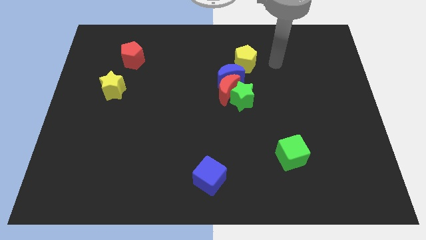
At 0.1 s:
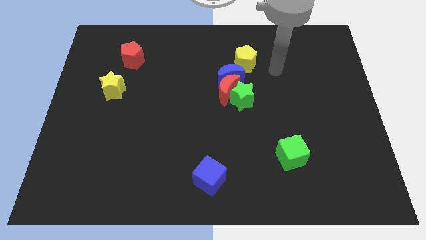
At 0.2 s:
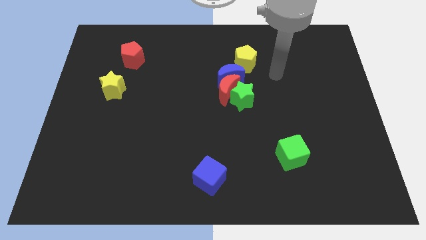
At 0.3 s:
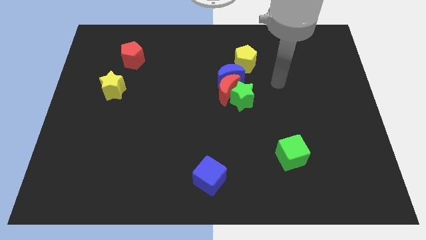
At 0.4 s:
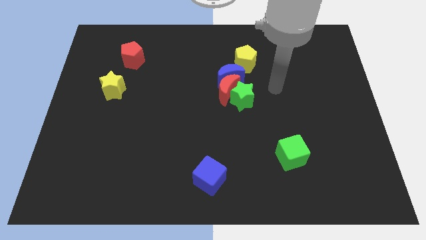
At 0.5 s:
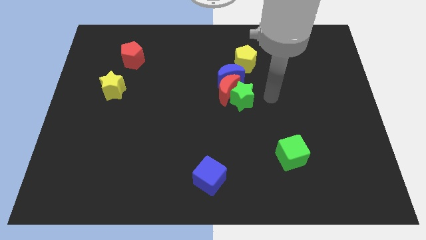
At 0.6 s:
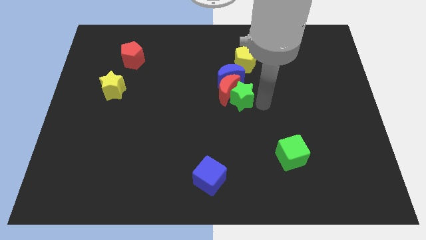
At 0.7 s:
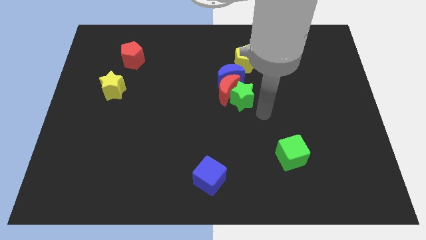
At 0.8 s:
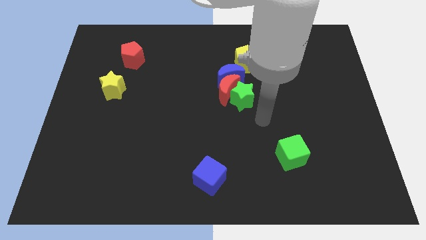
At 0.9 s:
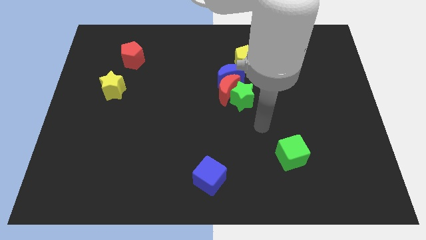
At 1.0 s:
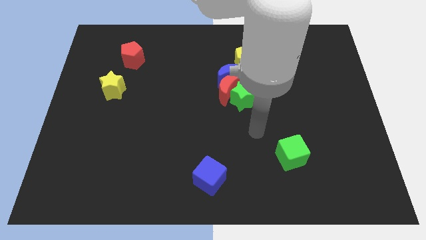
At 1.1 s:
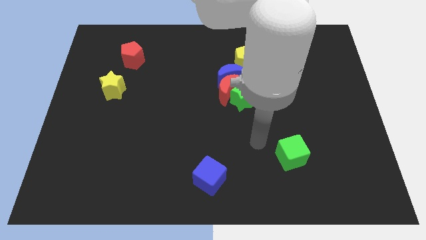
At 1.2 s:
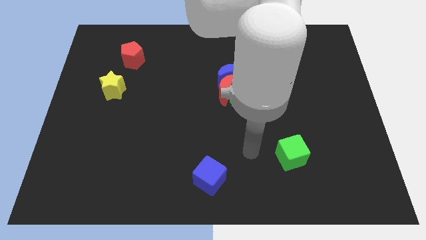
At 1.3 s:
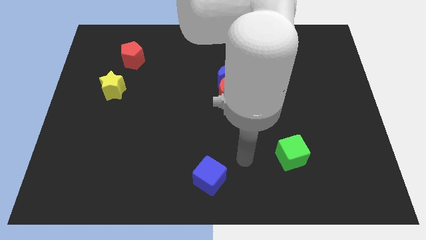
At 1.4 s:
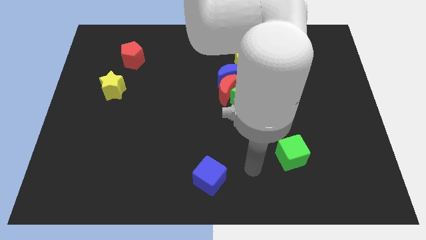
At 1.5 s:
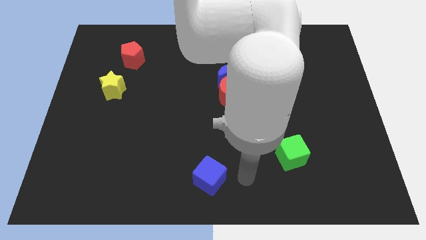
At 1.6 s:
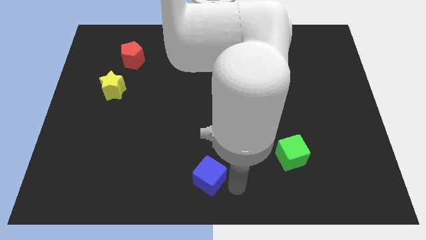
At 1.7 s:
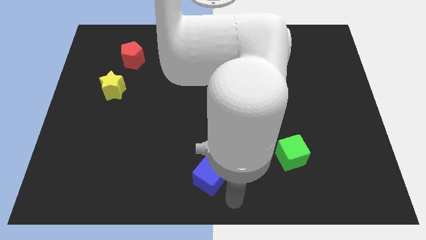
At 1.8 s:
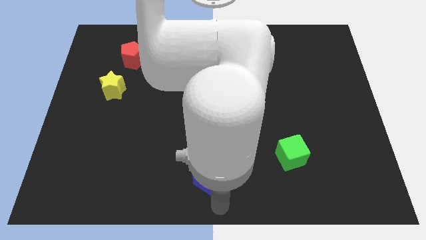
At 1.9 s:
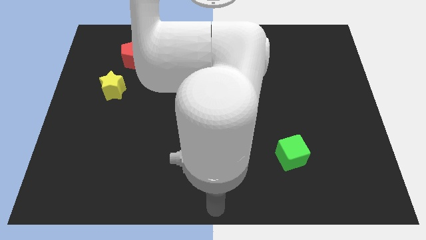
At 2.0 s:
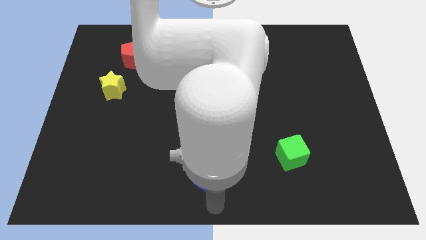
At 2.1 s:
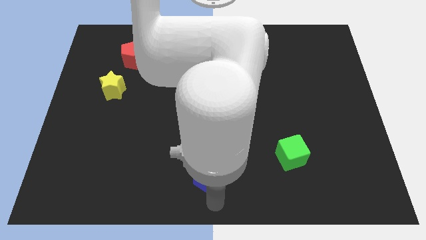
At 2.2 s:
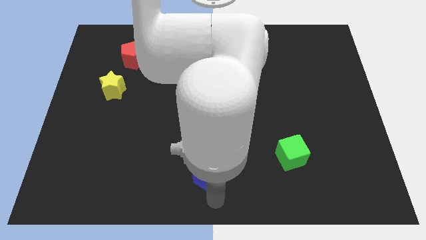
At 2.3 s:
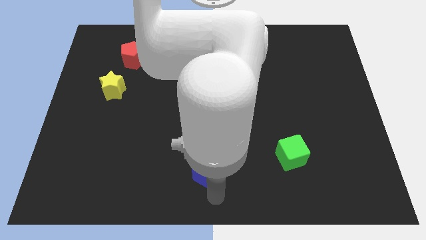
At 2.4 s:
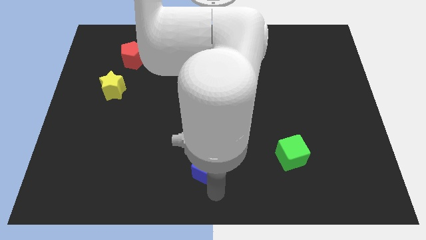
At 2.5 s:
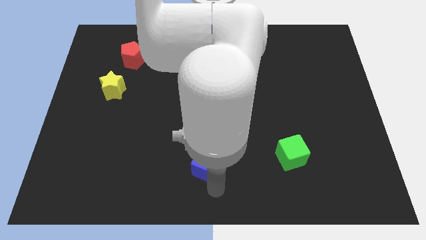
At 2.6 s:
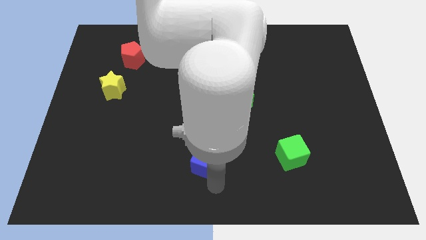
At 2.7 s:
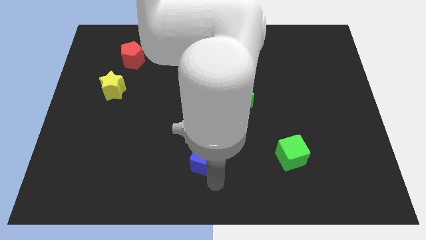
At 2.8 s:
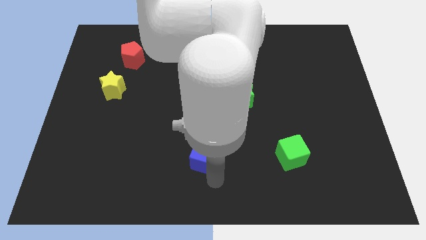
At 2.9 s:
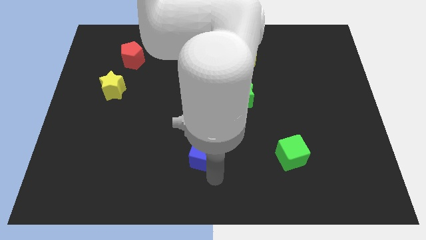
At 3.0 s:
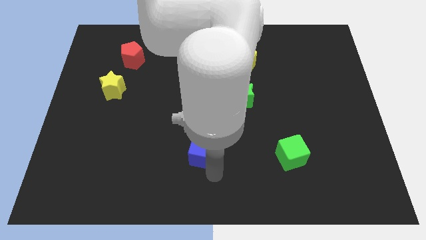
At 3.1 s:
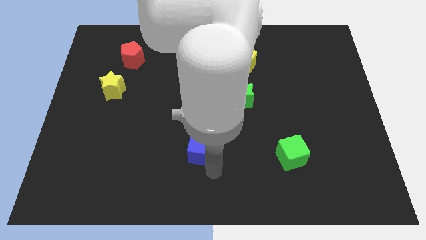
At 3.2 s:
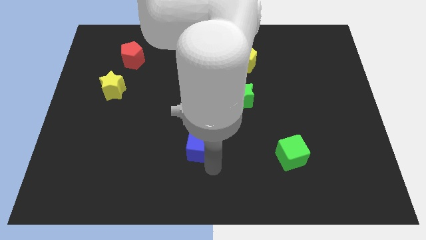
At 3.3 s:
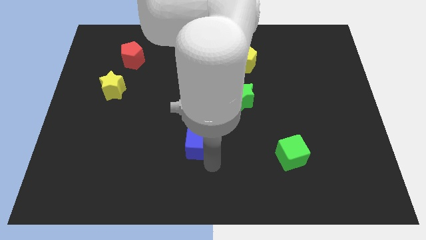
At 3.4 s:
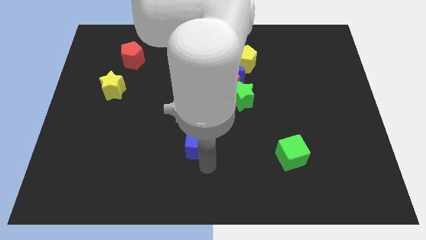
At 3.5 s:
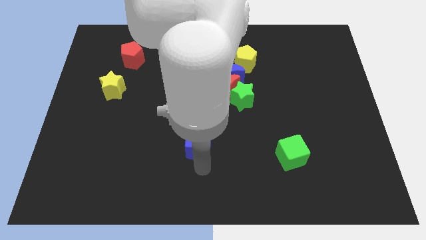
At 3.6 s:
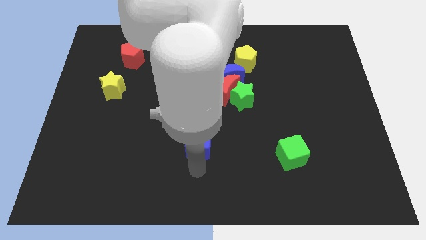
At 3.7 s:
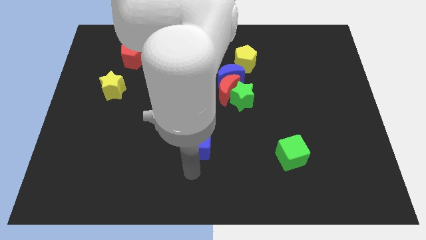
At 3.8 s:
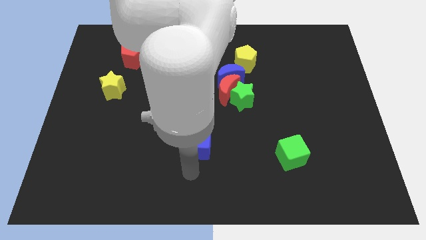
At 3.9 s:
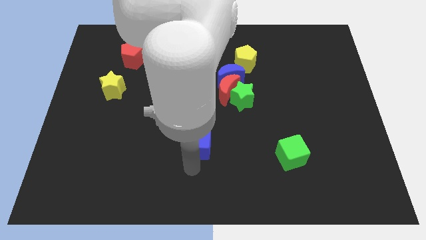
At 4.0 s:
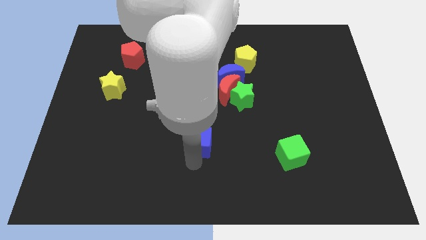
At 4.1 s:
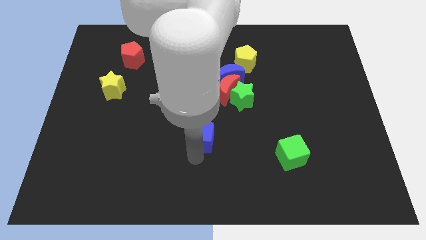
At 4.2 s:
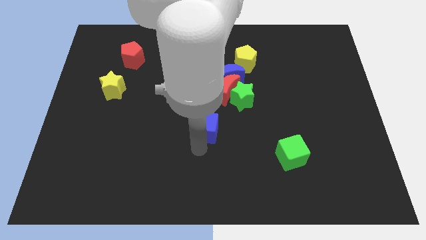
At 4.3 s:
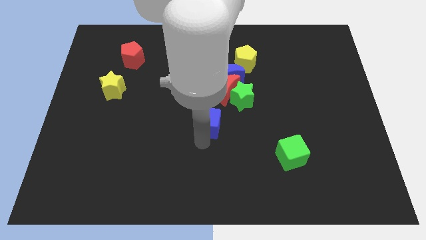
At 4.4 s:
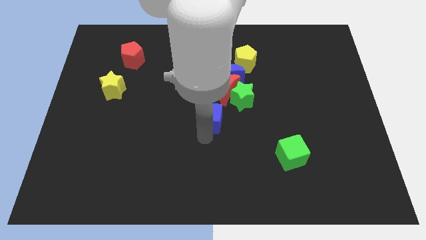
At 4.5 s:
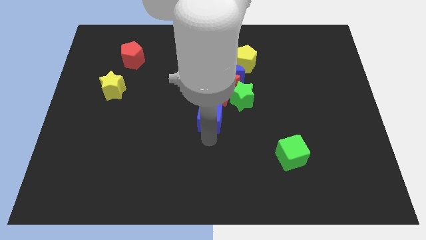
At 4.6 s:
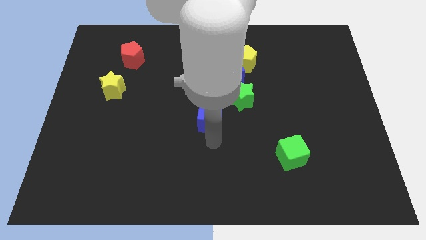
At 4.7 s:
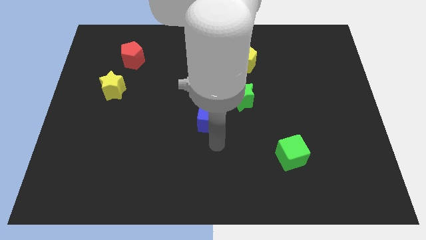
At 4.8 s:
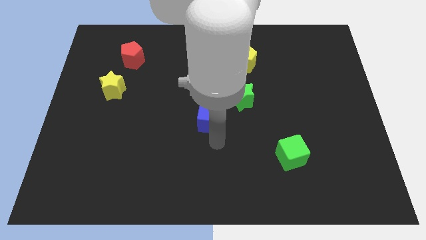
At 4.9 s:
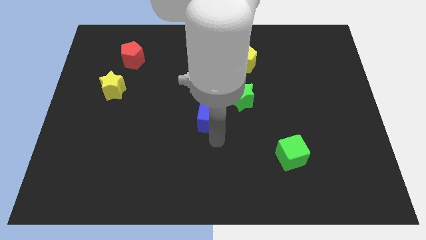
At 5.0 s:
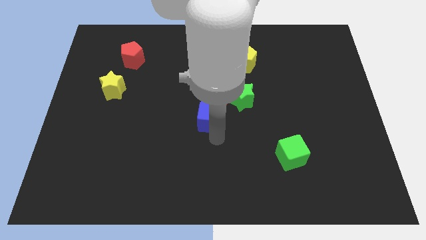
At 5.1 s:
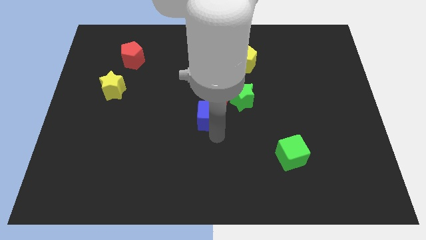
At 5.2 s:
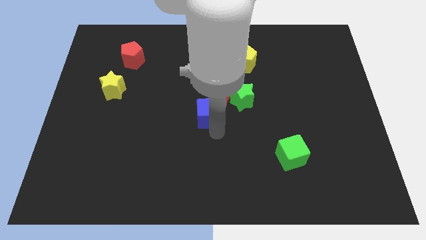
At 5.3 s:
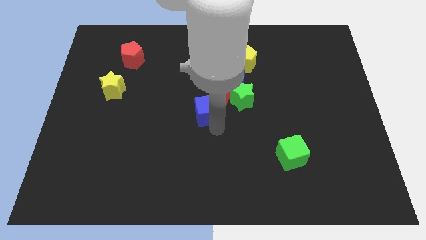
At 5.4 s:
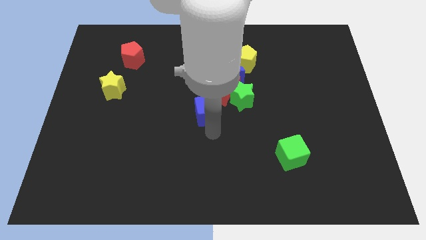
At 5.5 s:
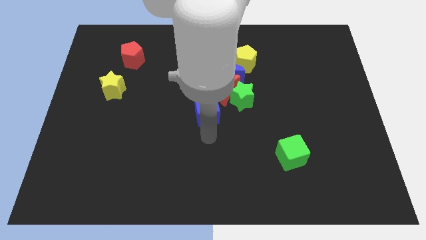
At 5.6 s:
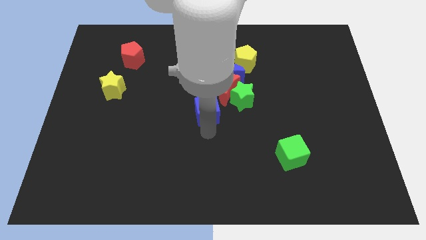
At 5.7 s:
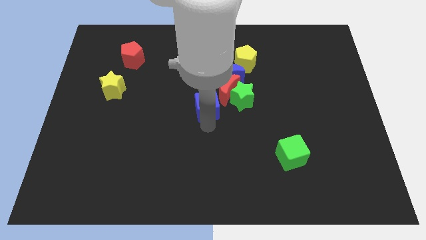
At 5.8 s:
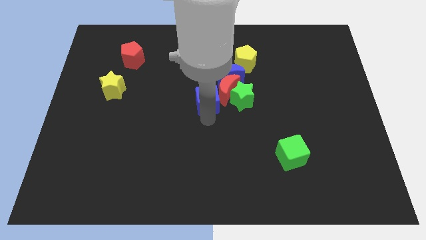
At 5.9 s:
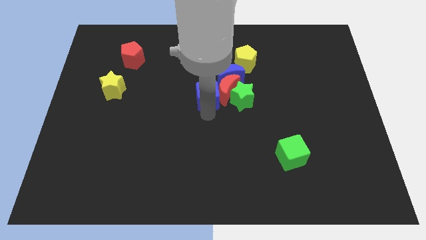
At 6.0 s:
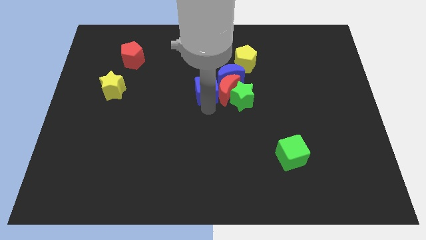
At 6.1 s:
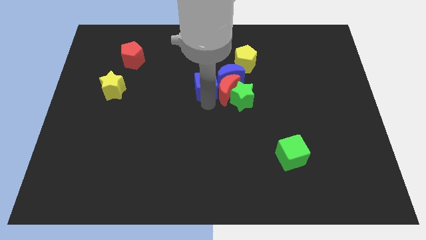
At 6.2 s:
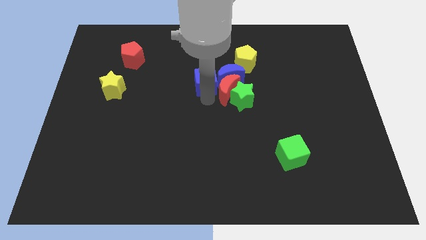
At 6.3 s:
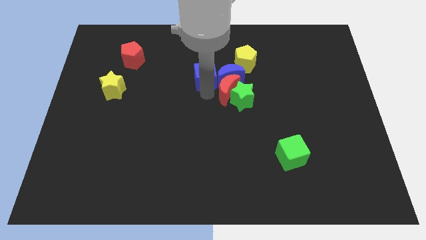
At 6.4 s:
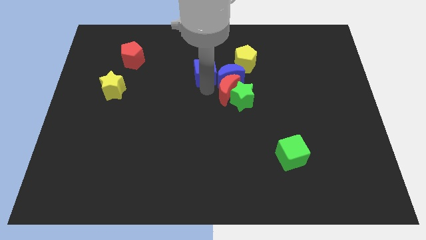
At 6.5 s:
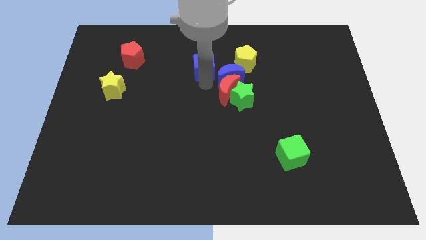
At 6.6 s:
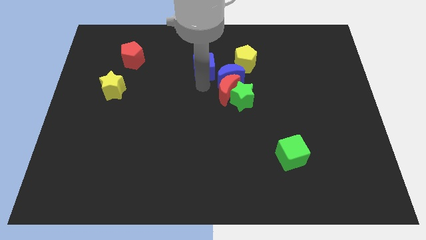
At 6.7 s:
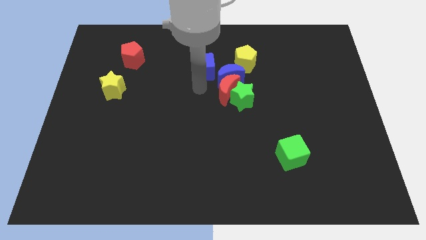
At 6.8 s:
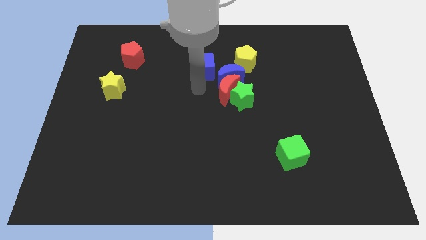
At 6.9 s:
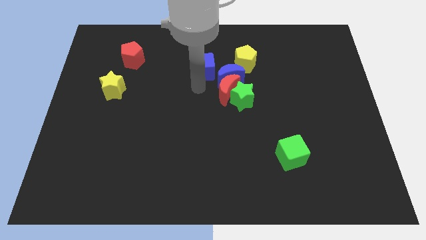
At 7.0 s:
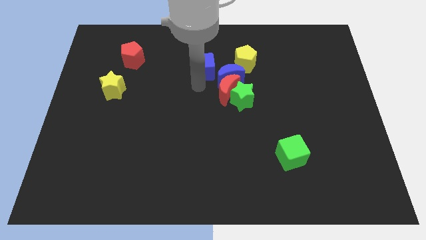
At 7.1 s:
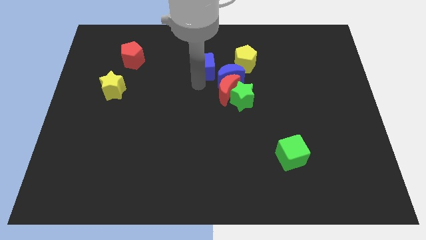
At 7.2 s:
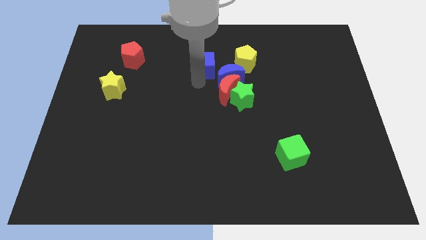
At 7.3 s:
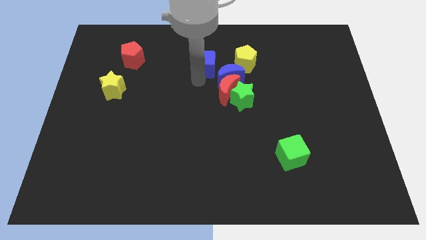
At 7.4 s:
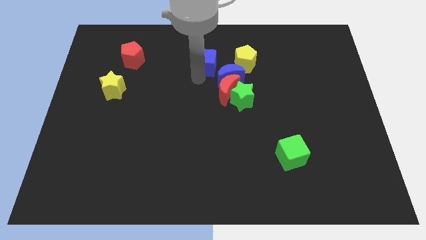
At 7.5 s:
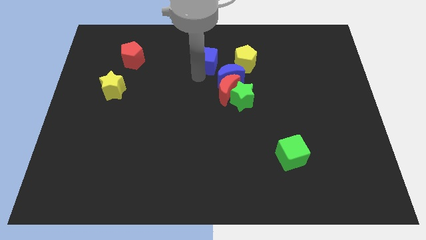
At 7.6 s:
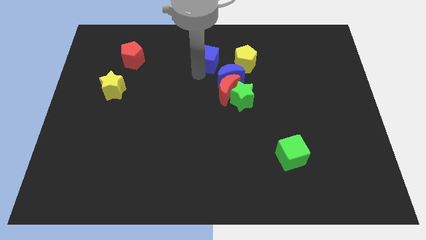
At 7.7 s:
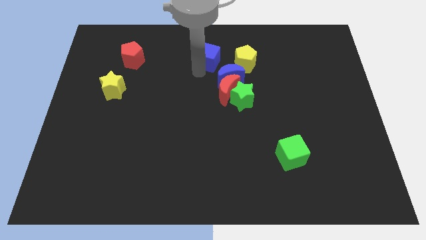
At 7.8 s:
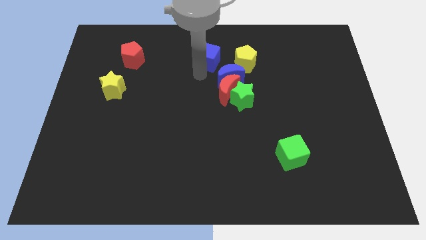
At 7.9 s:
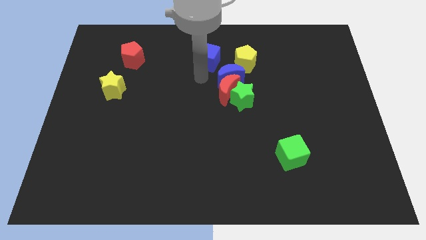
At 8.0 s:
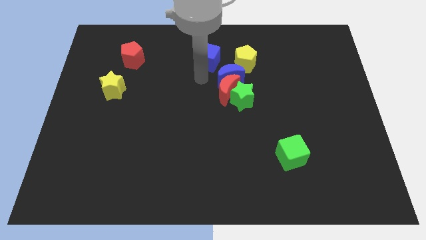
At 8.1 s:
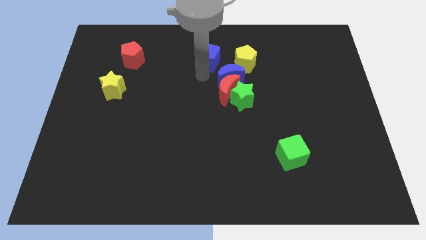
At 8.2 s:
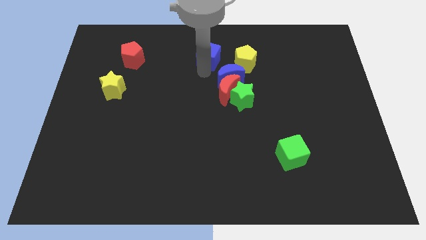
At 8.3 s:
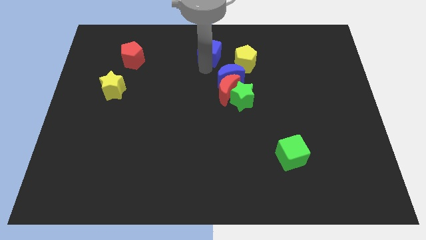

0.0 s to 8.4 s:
put the blue cube to the top side
